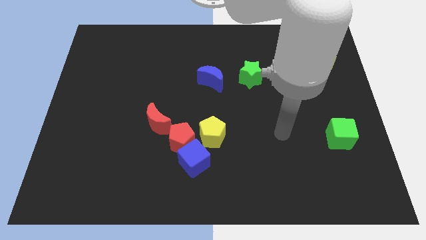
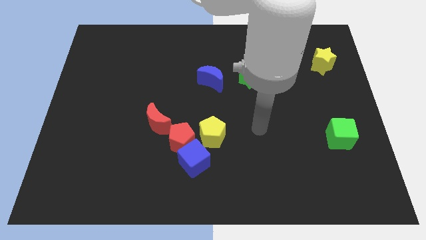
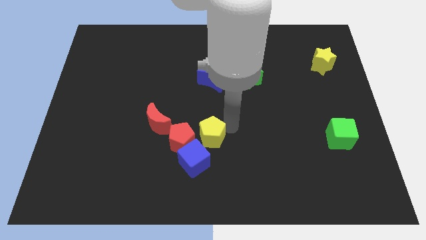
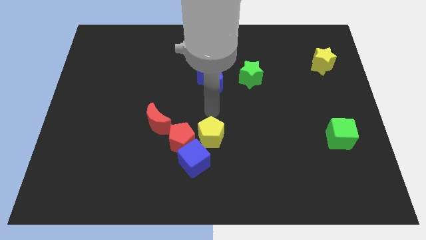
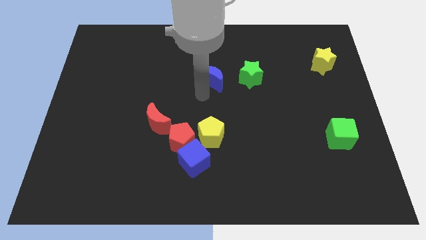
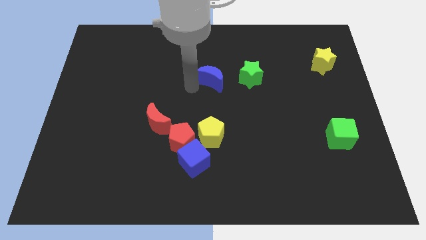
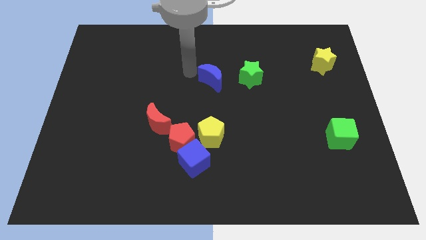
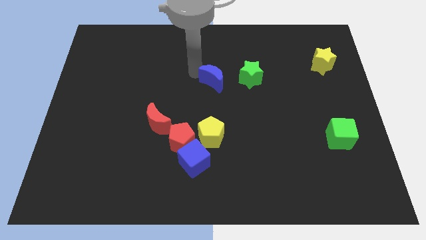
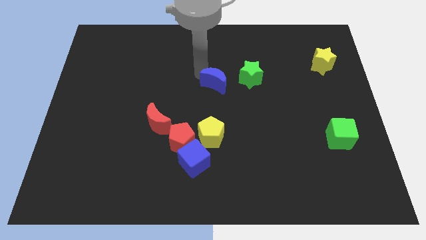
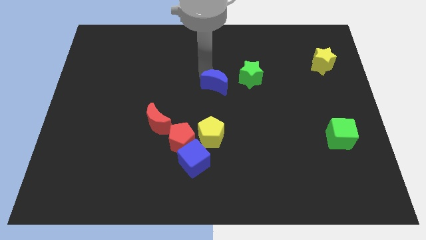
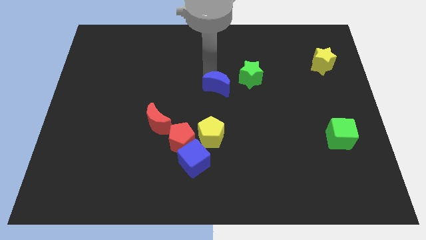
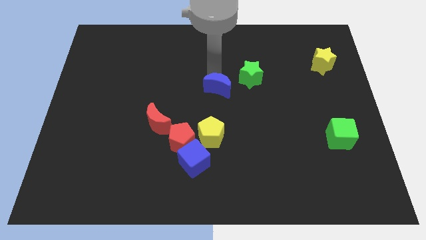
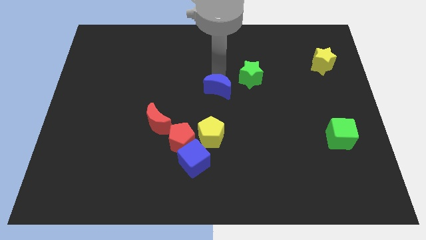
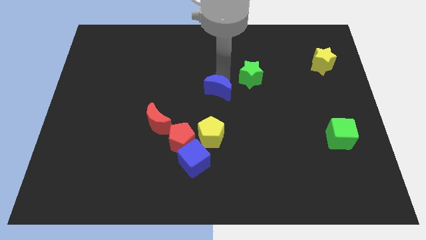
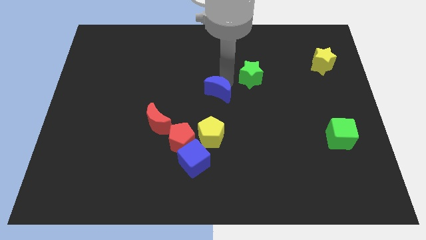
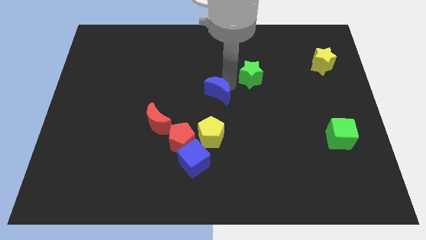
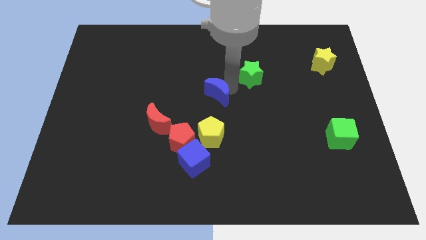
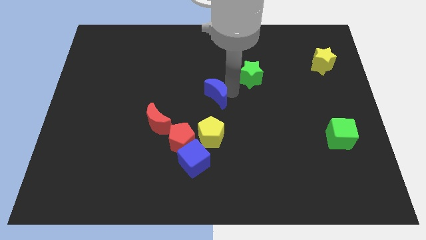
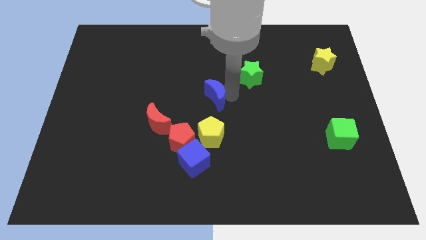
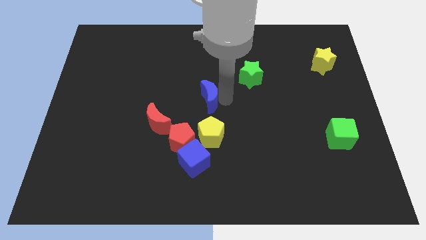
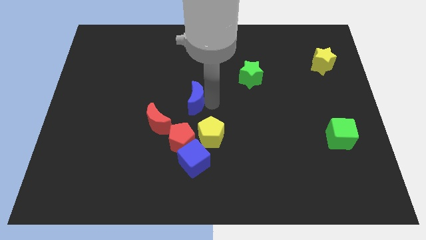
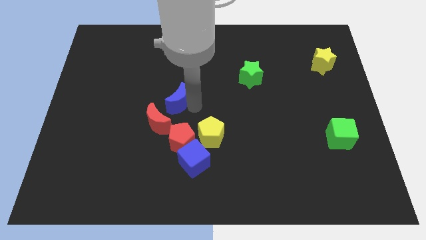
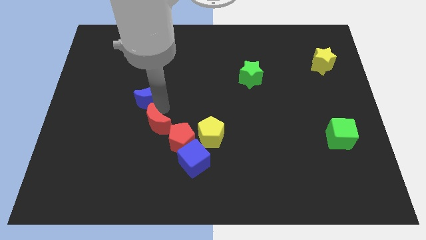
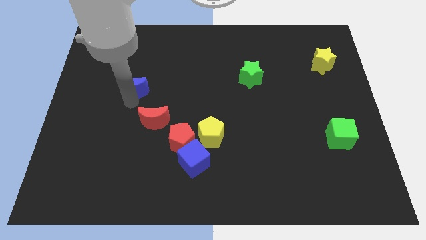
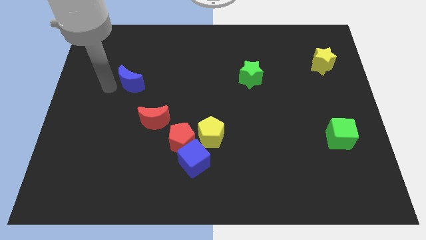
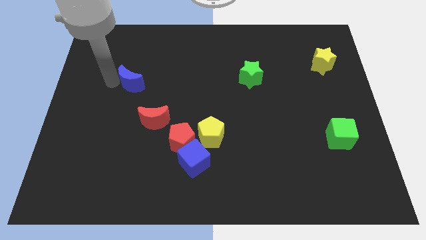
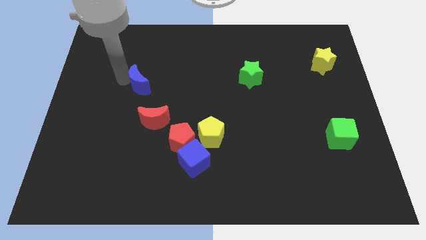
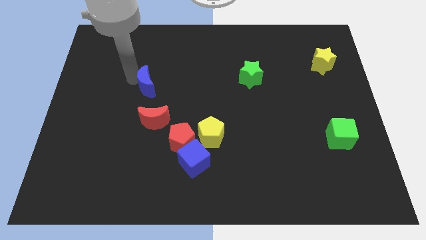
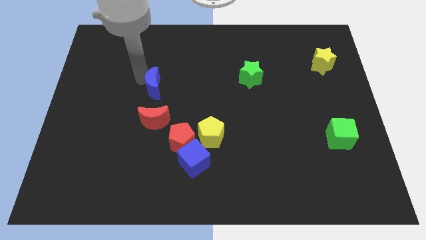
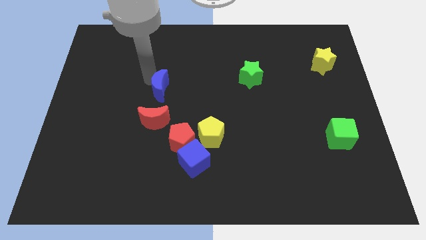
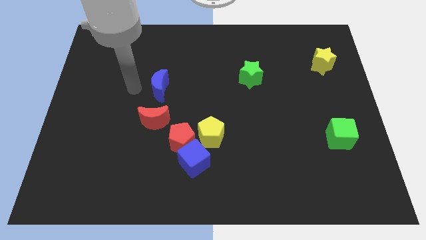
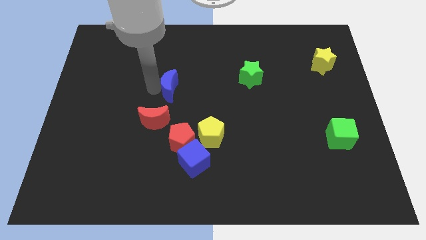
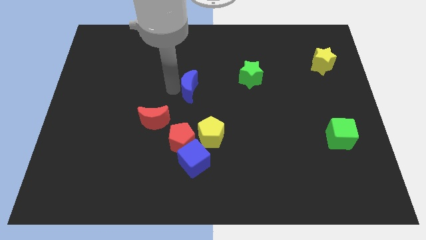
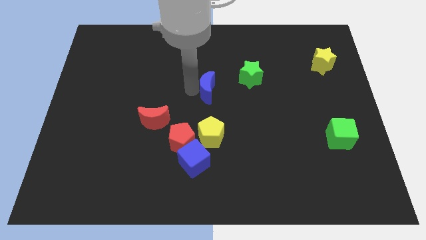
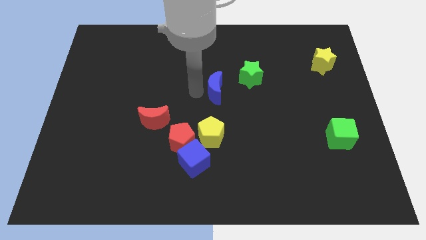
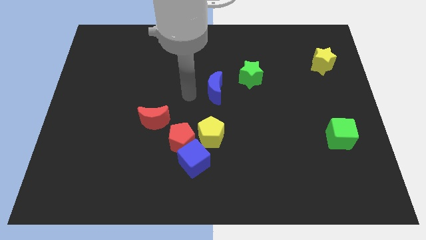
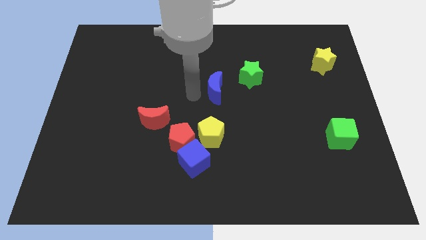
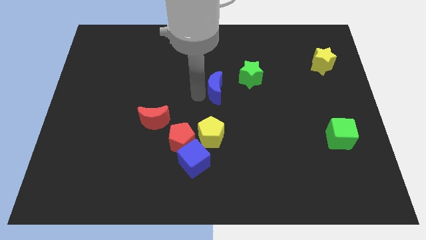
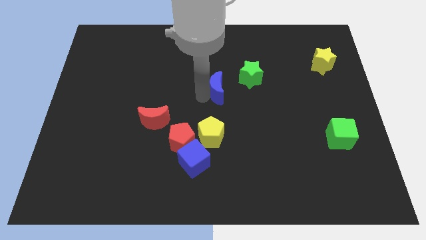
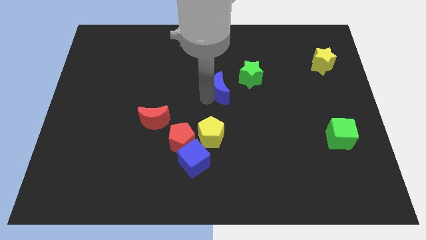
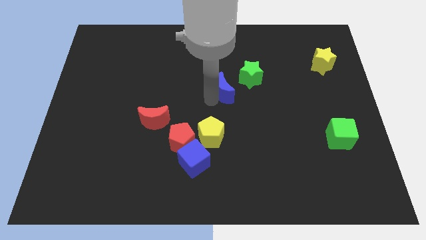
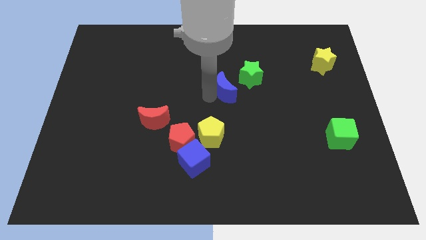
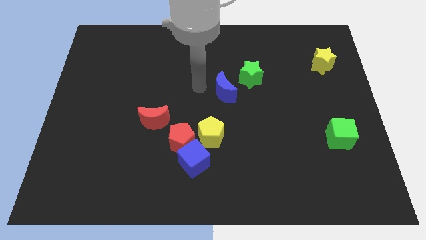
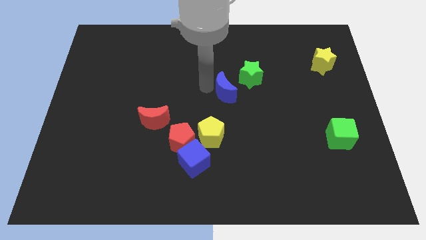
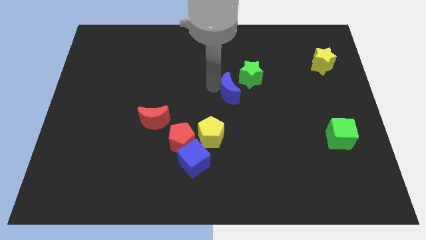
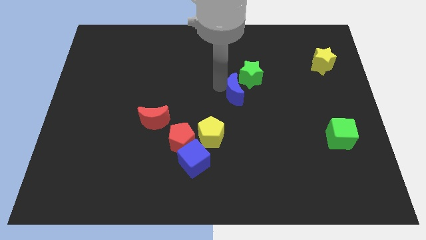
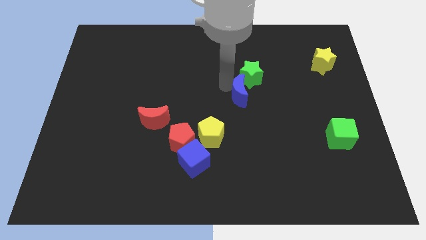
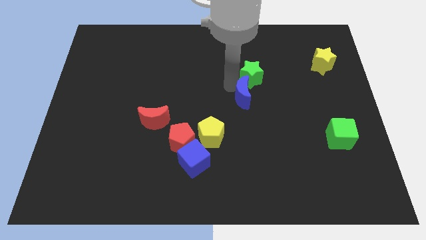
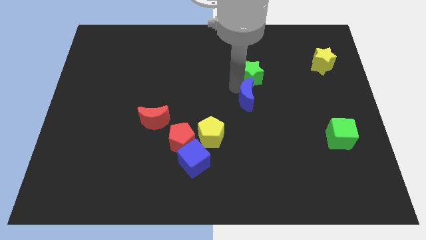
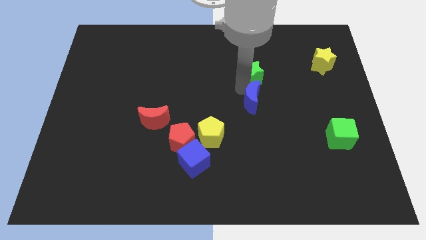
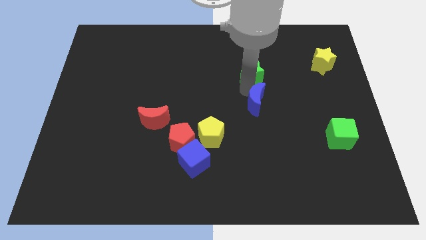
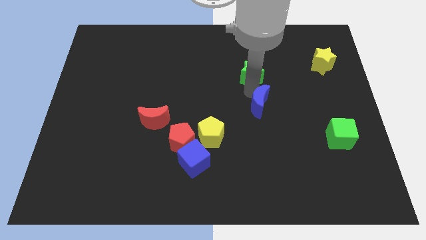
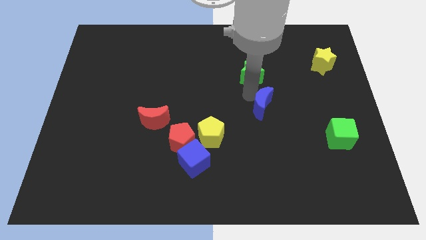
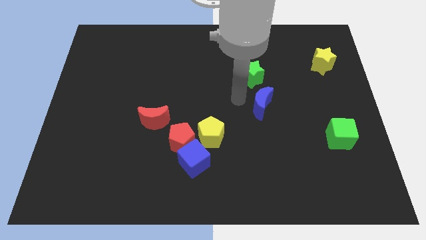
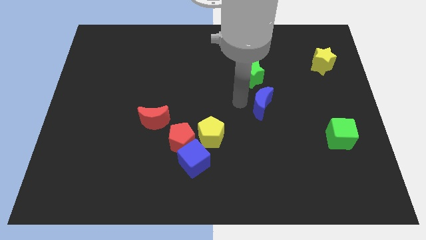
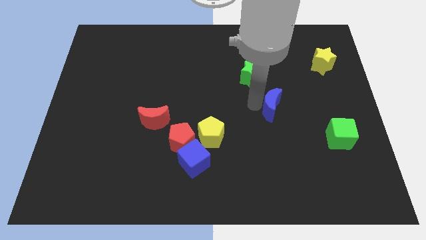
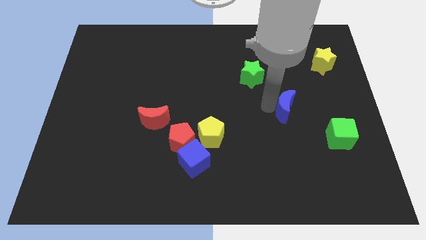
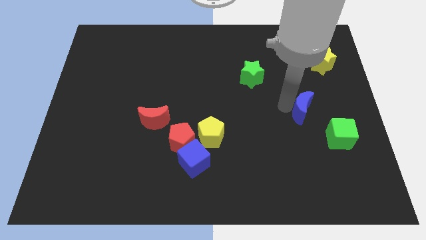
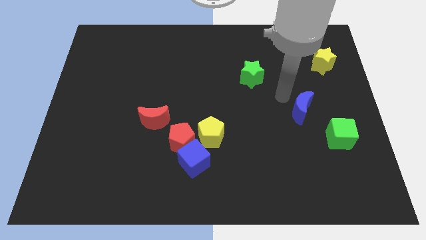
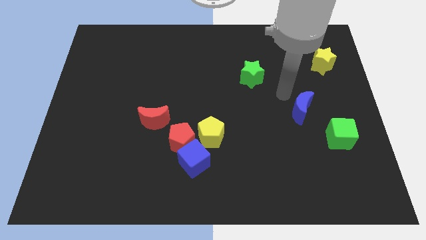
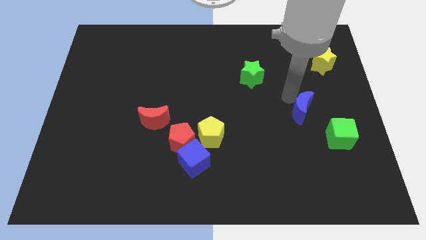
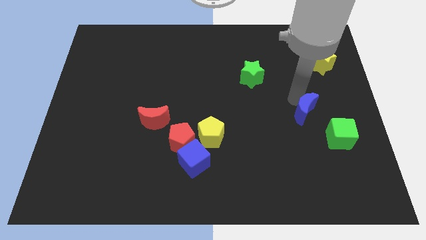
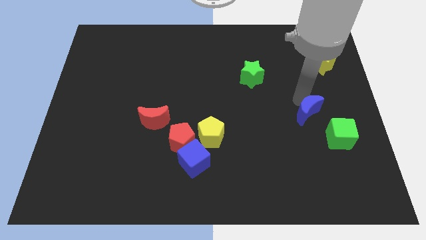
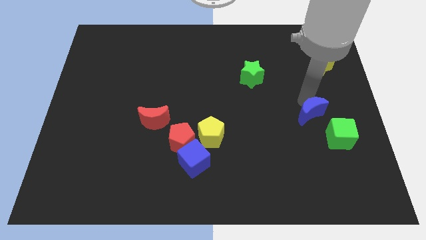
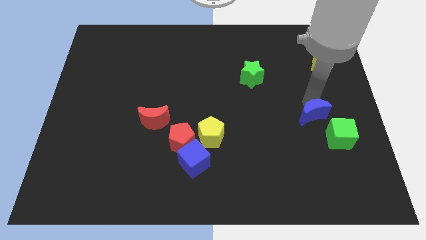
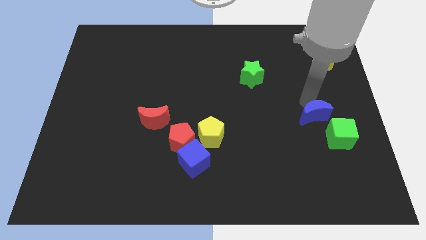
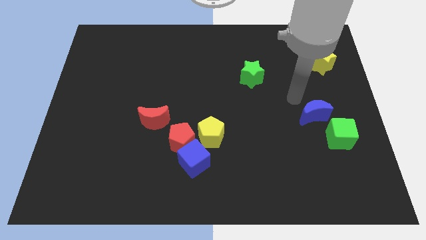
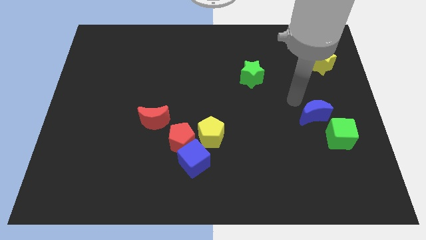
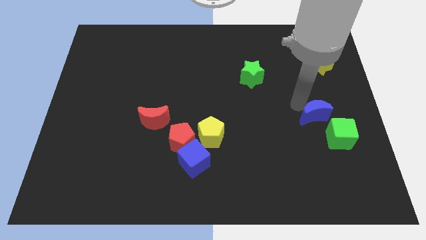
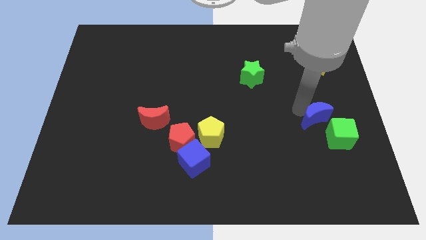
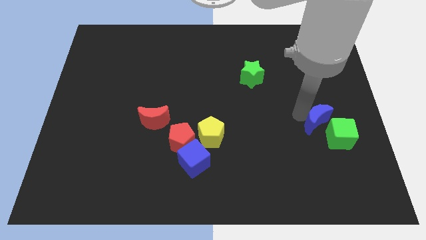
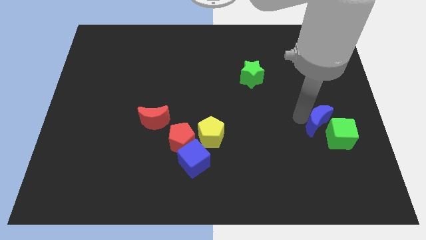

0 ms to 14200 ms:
push the blue moon to the green cube
